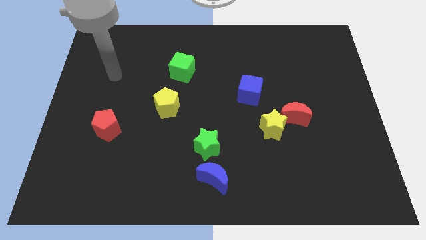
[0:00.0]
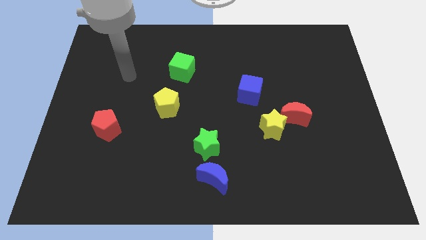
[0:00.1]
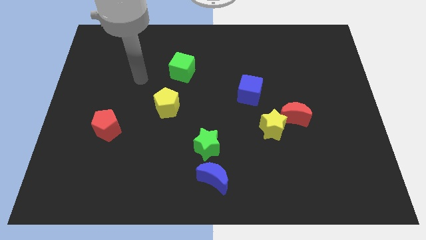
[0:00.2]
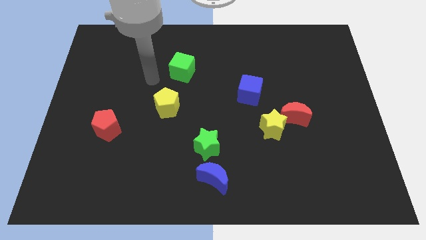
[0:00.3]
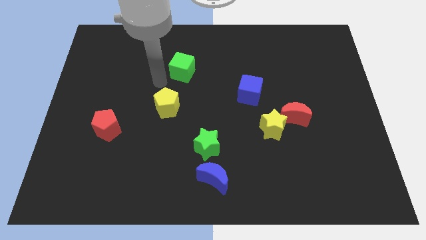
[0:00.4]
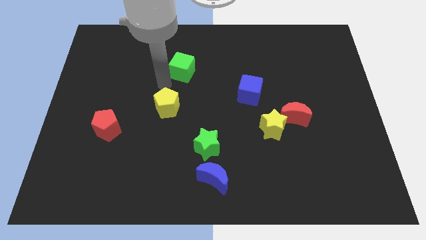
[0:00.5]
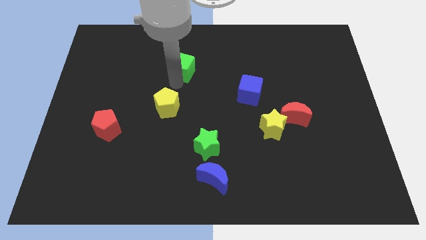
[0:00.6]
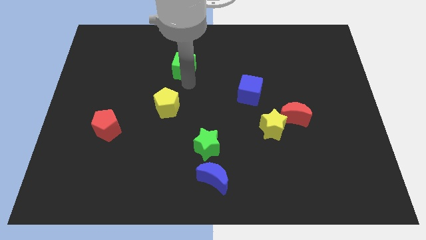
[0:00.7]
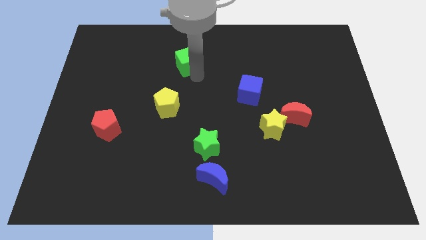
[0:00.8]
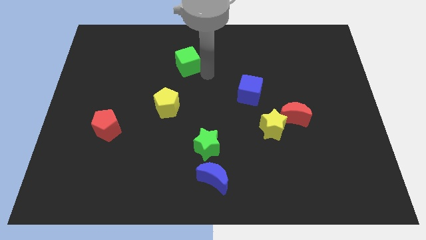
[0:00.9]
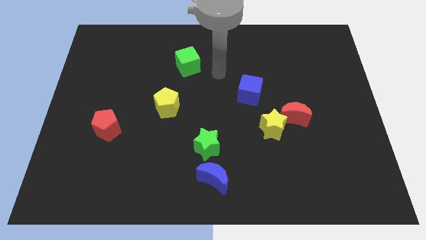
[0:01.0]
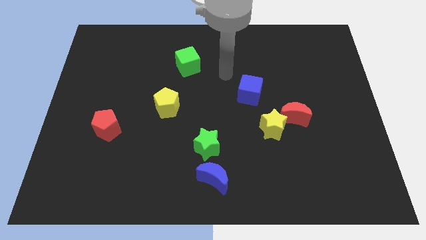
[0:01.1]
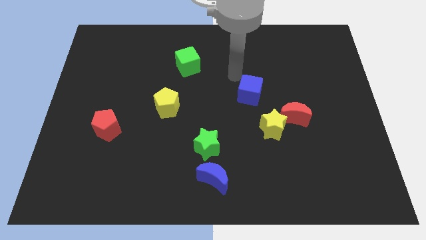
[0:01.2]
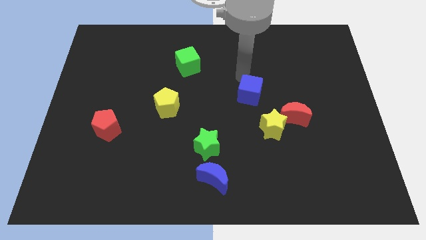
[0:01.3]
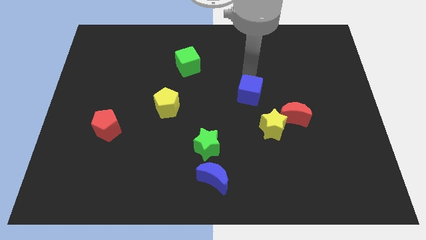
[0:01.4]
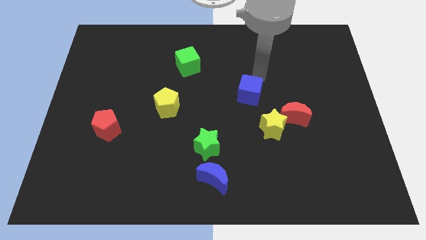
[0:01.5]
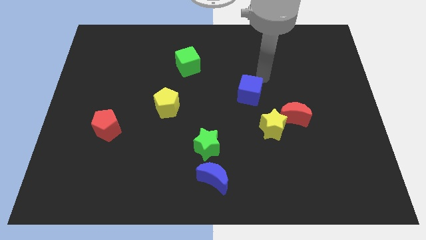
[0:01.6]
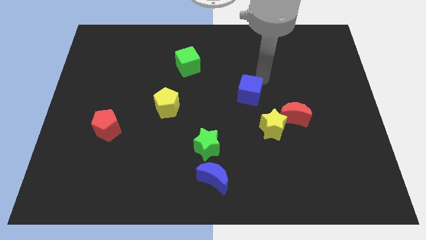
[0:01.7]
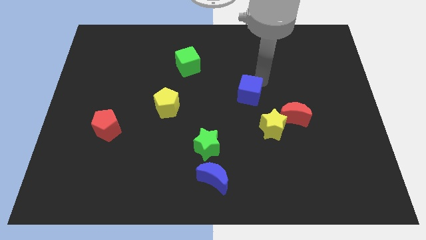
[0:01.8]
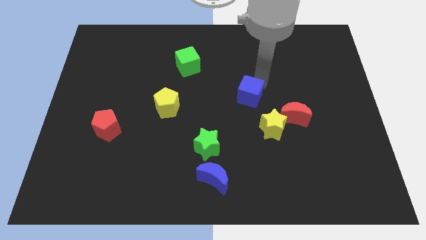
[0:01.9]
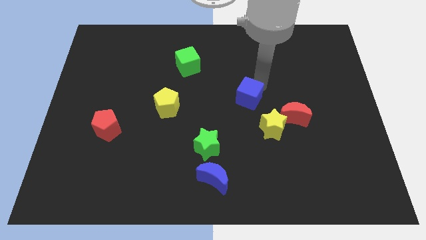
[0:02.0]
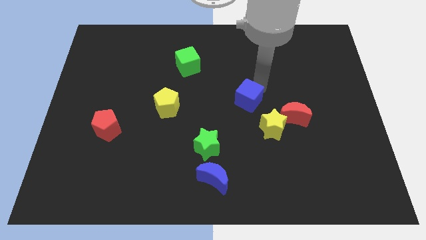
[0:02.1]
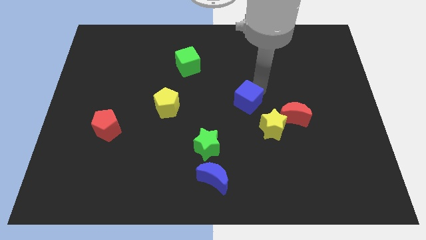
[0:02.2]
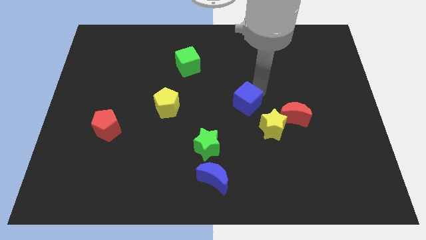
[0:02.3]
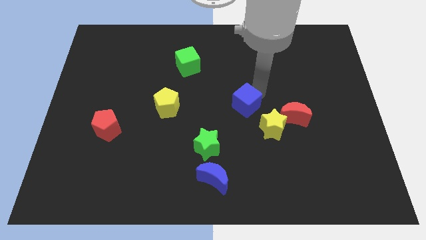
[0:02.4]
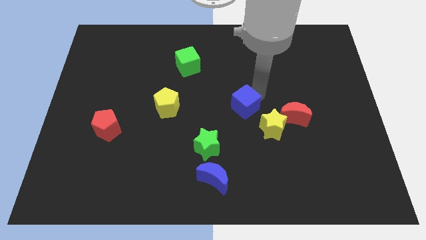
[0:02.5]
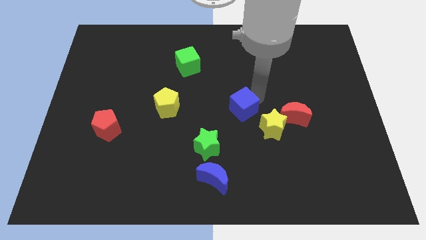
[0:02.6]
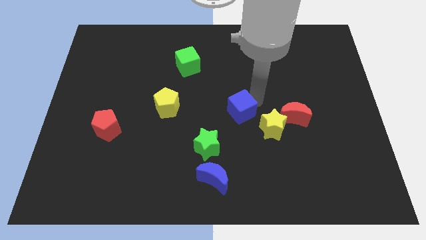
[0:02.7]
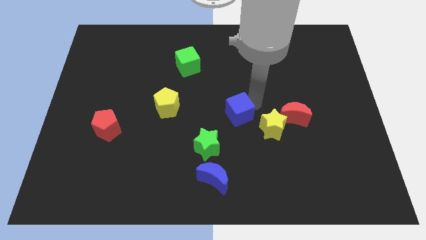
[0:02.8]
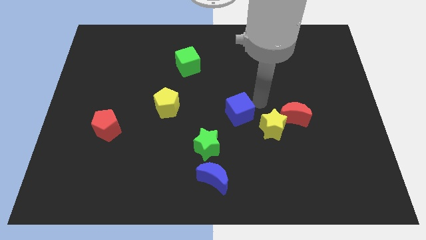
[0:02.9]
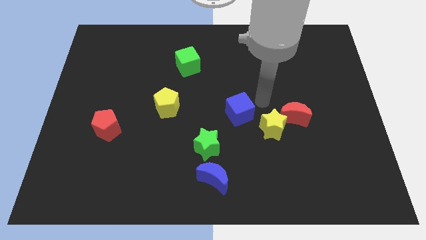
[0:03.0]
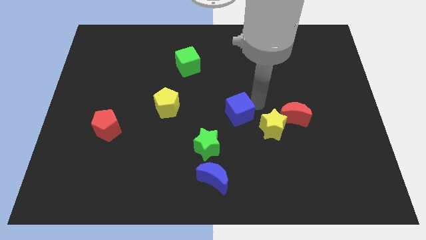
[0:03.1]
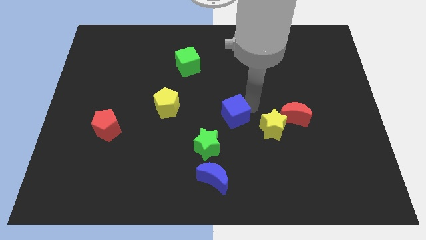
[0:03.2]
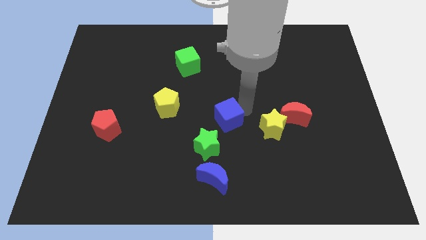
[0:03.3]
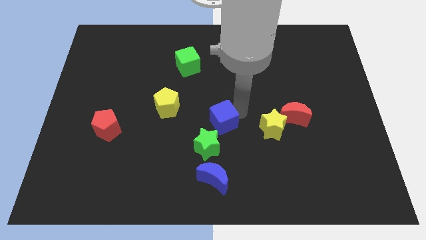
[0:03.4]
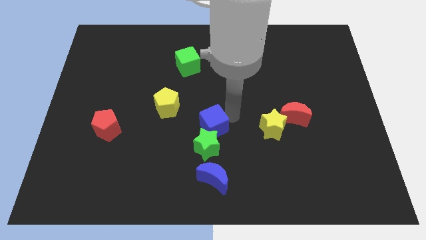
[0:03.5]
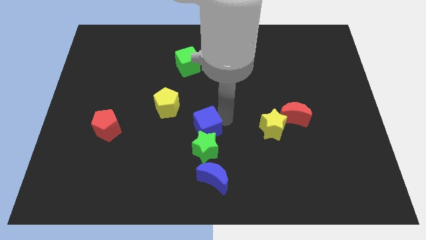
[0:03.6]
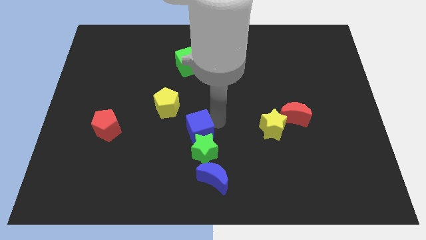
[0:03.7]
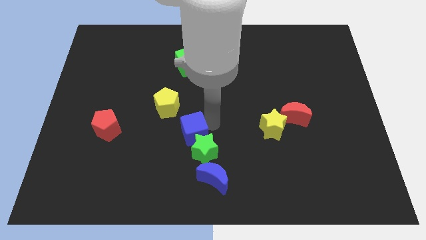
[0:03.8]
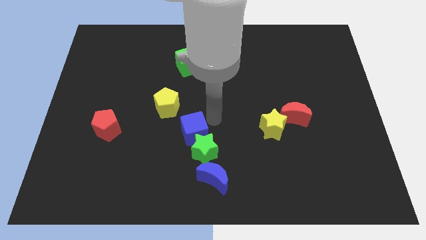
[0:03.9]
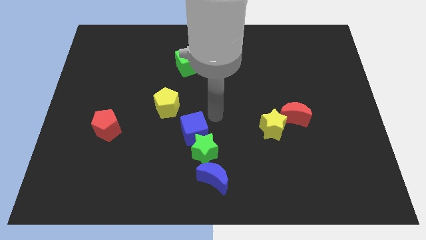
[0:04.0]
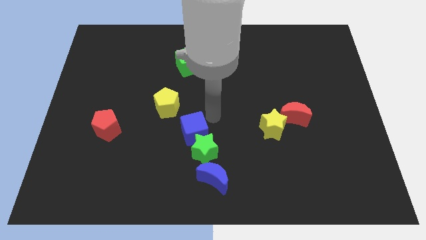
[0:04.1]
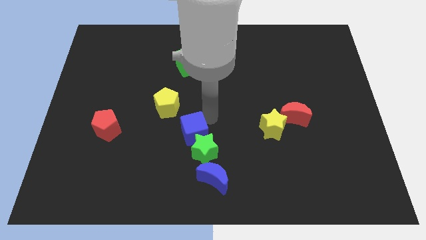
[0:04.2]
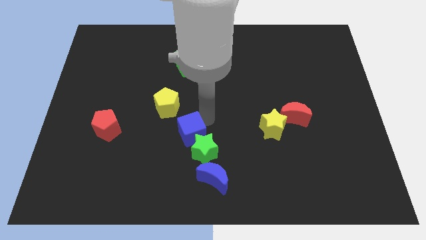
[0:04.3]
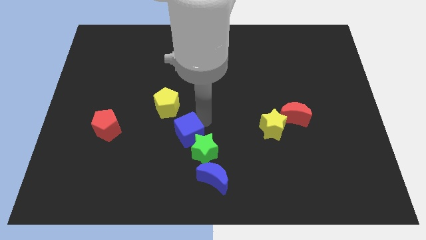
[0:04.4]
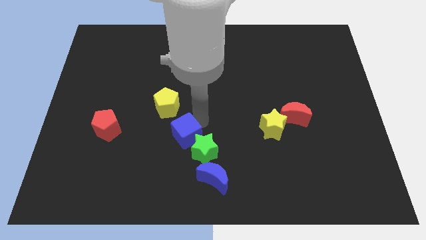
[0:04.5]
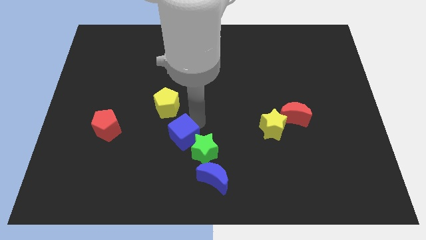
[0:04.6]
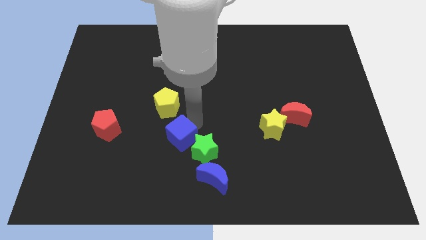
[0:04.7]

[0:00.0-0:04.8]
move the blue cube diagonally down and to the left

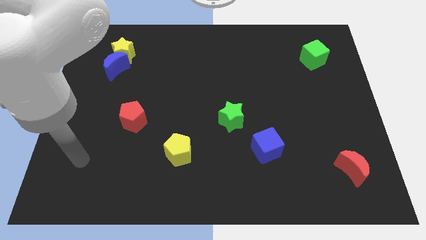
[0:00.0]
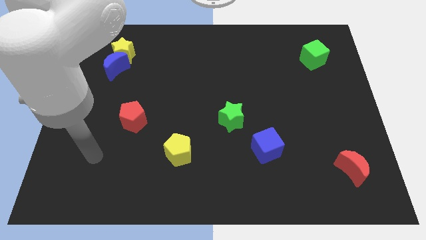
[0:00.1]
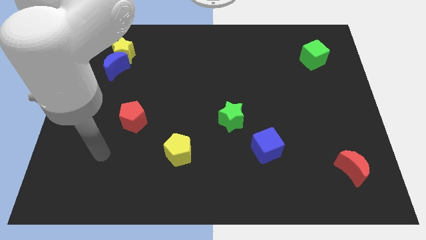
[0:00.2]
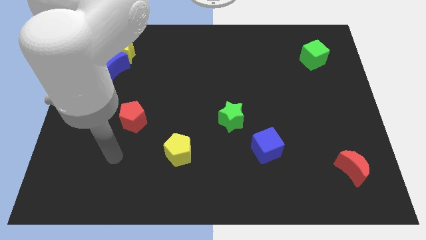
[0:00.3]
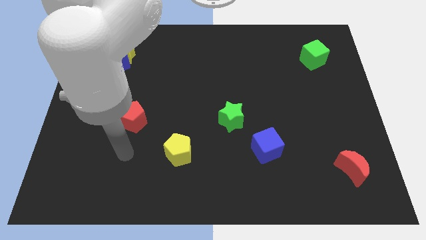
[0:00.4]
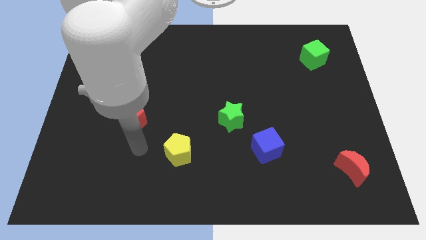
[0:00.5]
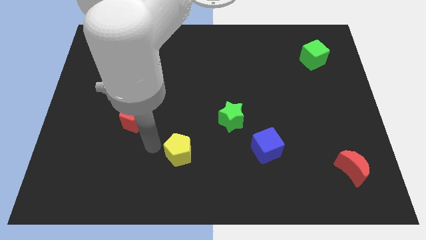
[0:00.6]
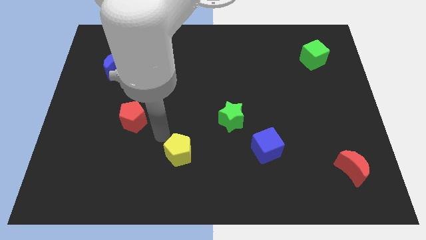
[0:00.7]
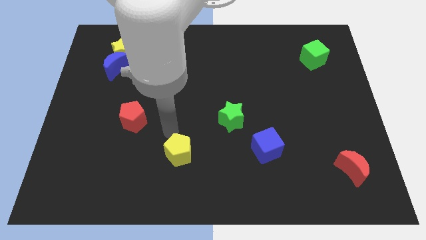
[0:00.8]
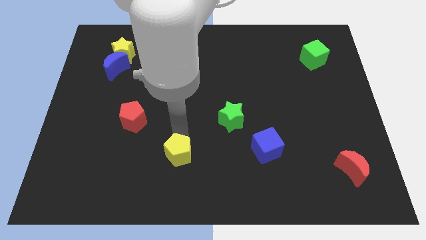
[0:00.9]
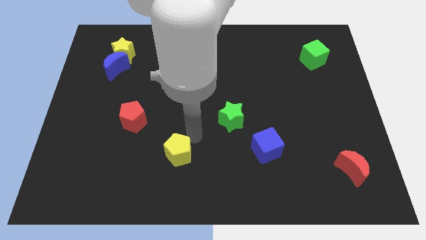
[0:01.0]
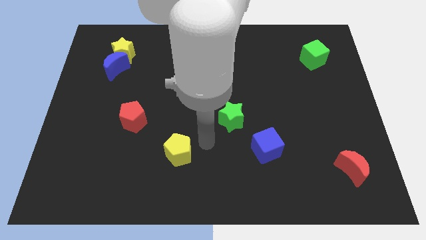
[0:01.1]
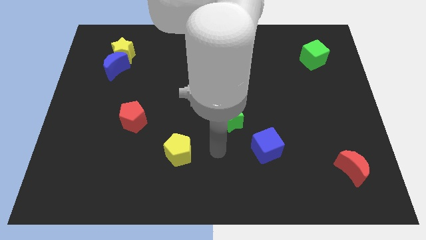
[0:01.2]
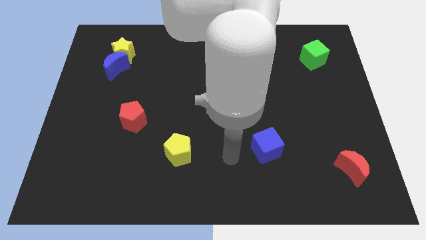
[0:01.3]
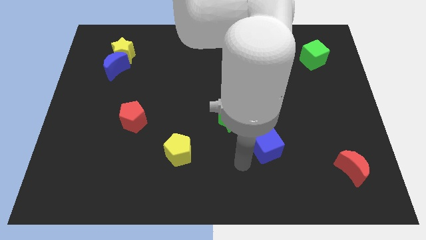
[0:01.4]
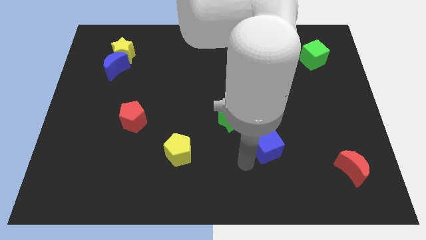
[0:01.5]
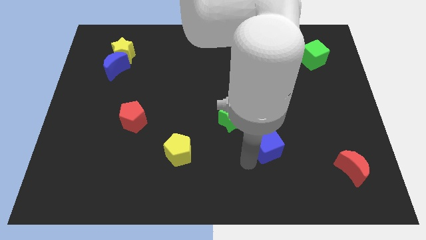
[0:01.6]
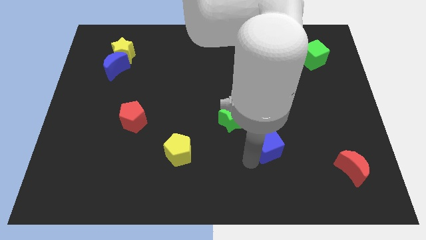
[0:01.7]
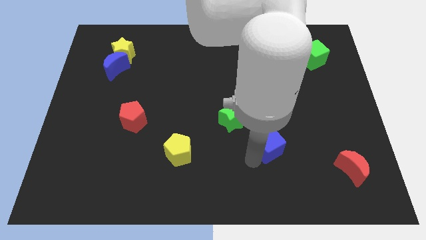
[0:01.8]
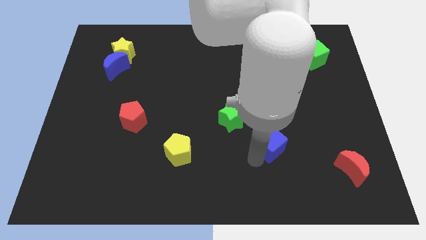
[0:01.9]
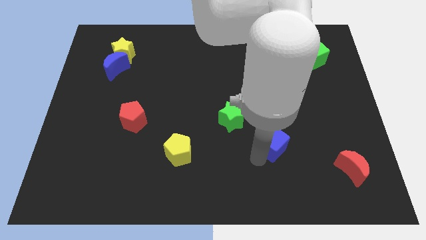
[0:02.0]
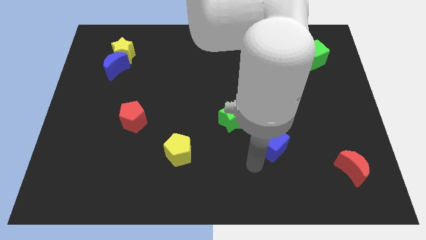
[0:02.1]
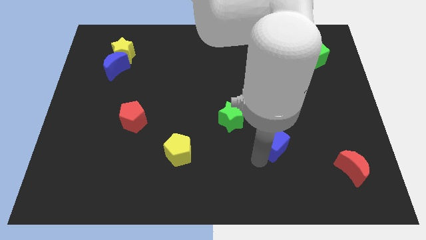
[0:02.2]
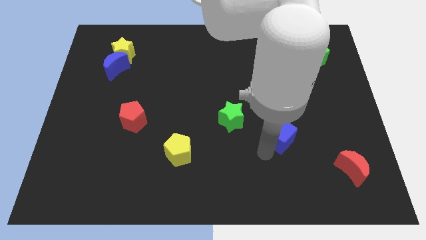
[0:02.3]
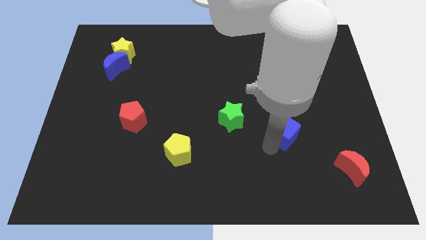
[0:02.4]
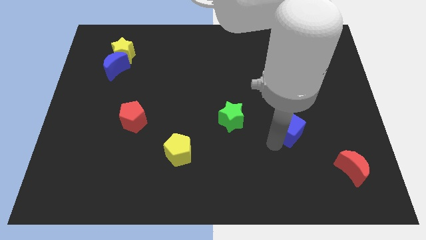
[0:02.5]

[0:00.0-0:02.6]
slightly slide the blue cube diagonally upwards and right

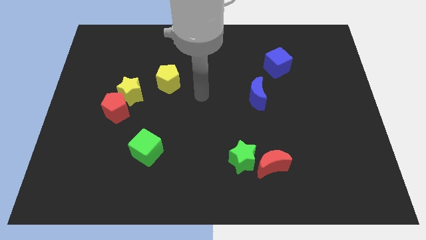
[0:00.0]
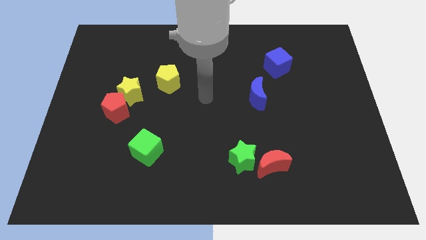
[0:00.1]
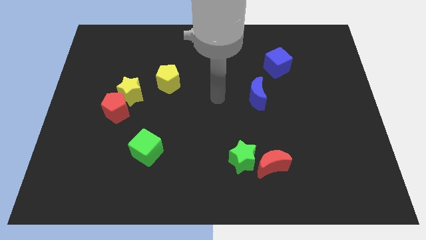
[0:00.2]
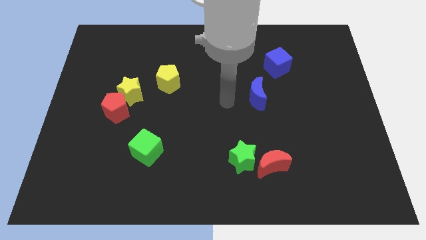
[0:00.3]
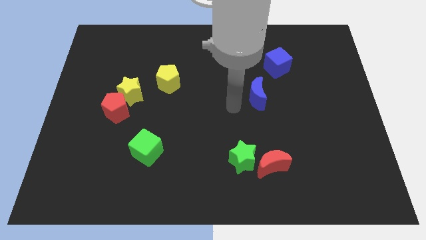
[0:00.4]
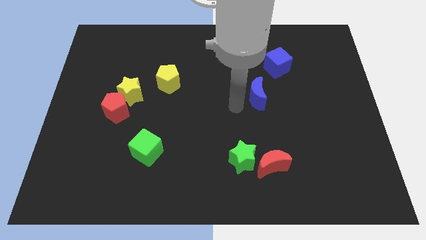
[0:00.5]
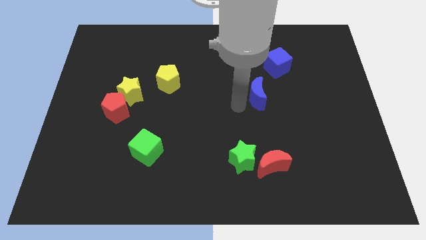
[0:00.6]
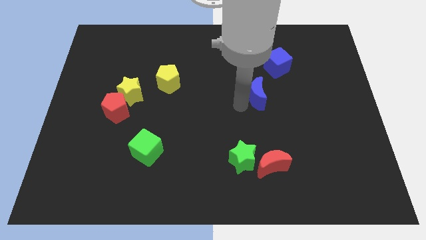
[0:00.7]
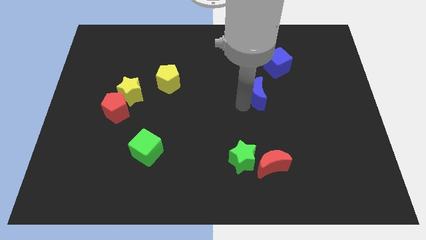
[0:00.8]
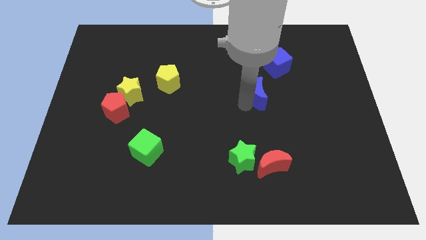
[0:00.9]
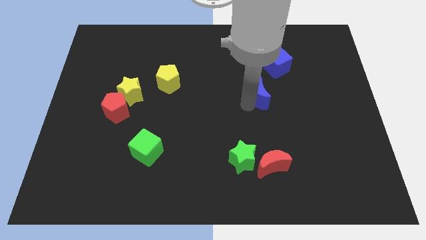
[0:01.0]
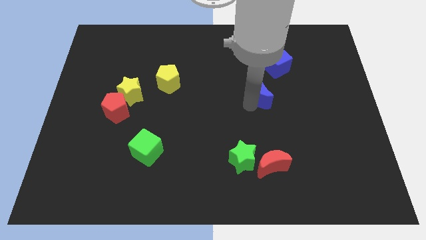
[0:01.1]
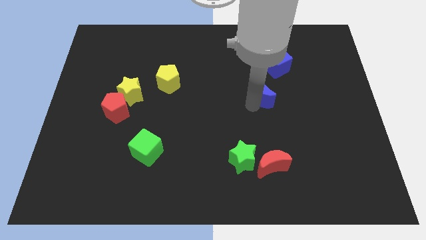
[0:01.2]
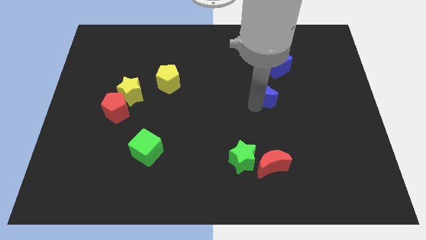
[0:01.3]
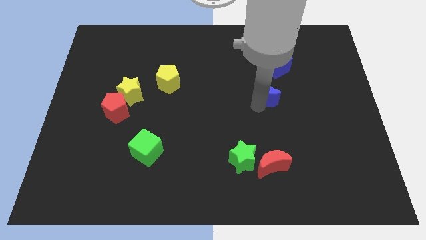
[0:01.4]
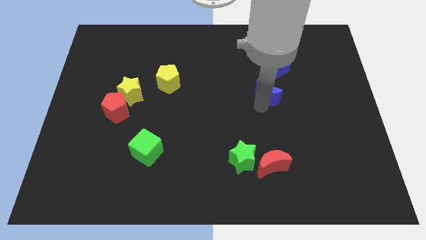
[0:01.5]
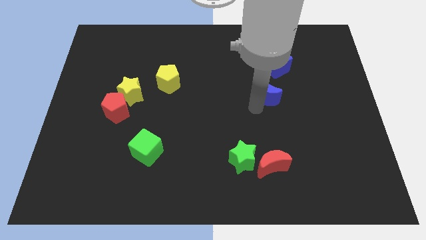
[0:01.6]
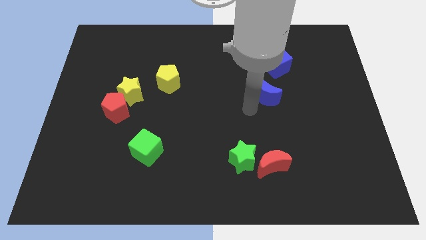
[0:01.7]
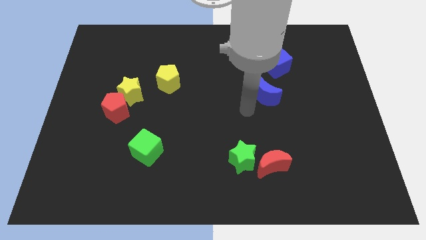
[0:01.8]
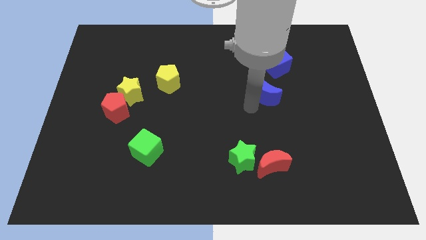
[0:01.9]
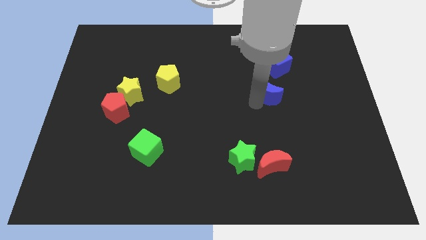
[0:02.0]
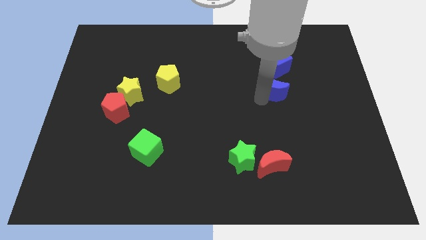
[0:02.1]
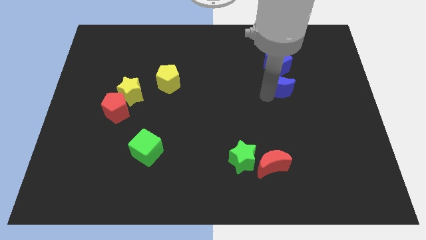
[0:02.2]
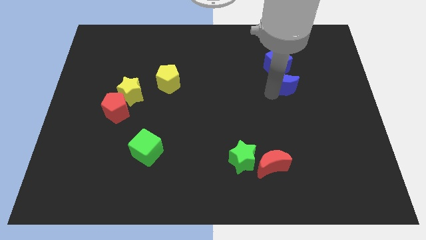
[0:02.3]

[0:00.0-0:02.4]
slide the blue moon upwards and to the right a little
